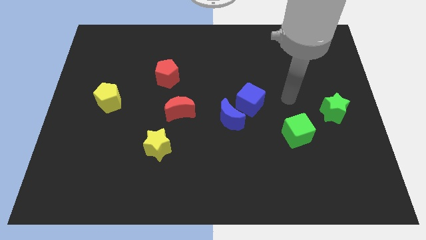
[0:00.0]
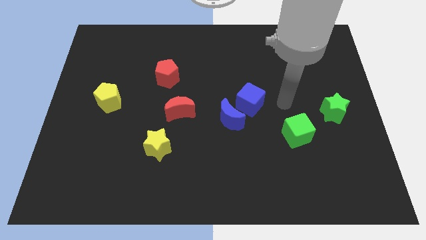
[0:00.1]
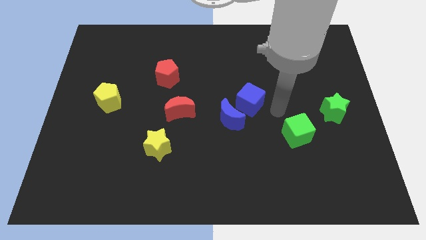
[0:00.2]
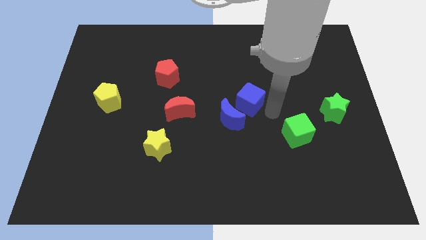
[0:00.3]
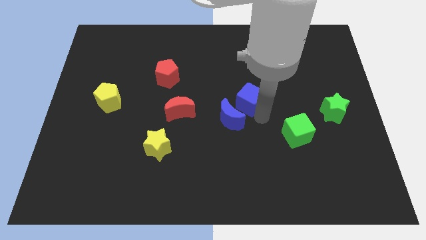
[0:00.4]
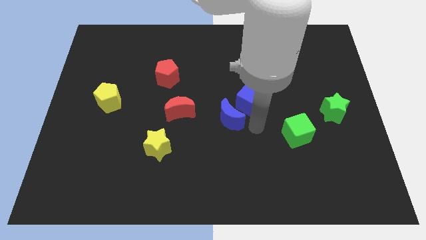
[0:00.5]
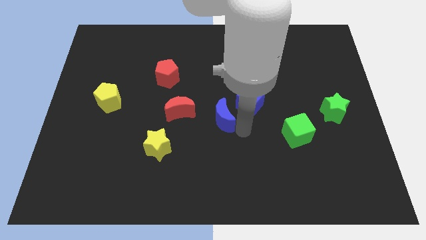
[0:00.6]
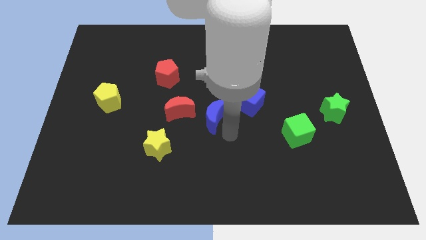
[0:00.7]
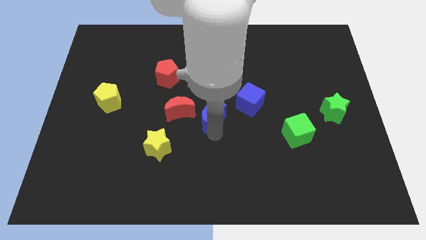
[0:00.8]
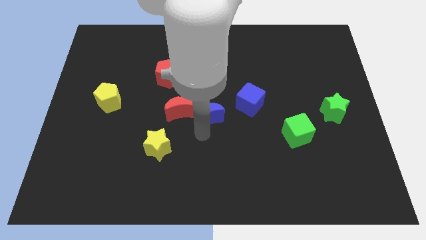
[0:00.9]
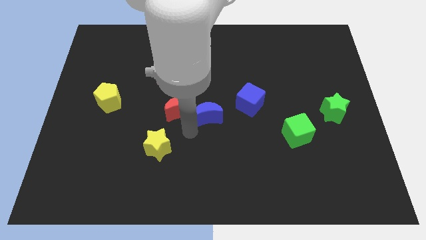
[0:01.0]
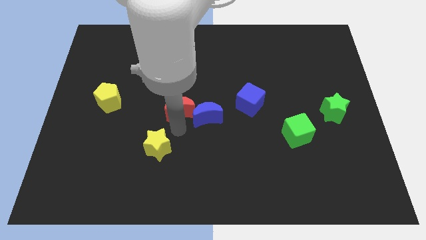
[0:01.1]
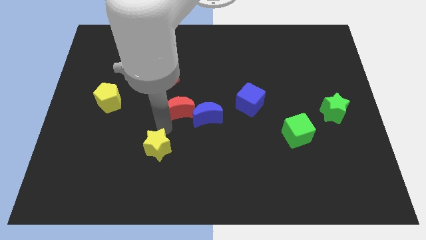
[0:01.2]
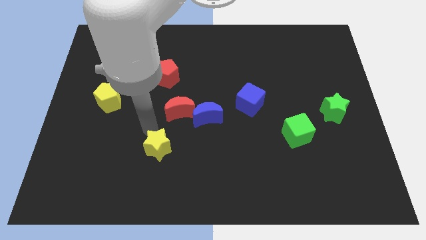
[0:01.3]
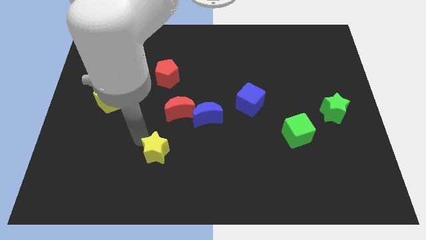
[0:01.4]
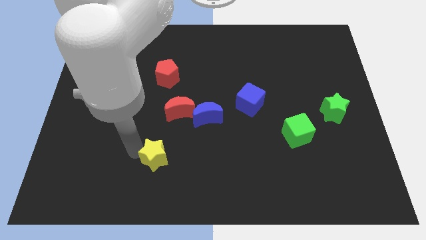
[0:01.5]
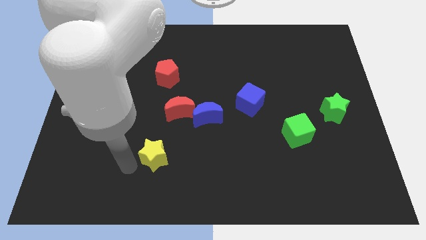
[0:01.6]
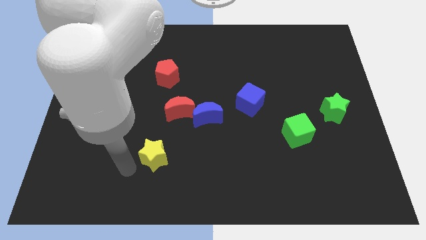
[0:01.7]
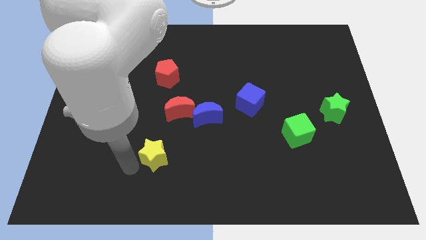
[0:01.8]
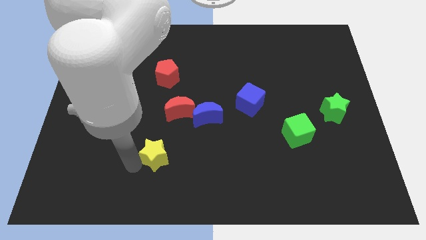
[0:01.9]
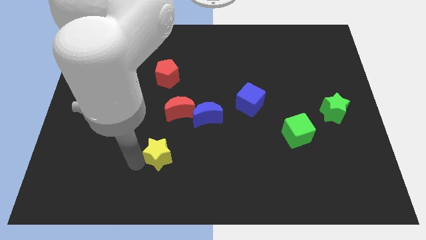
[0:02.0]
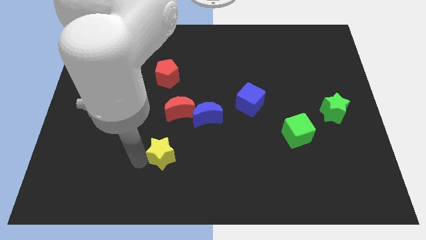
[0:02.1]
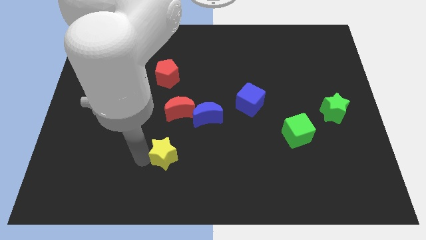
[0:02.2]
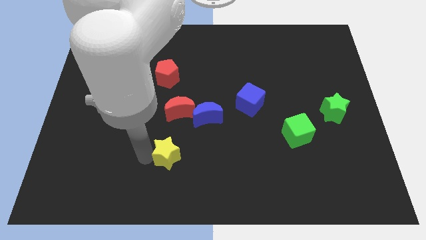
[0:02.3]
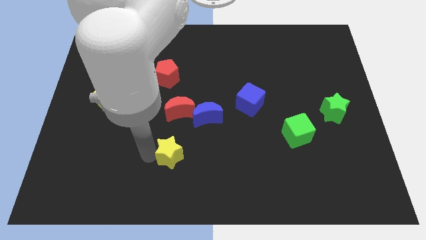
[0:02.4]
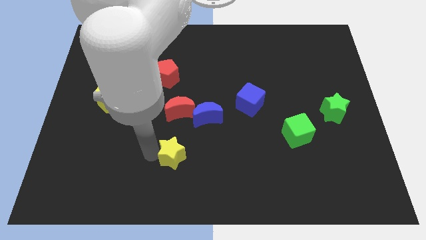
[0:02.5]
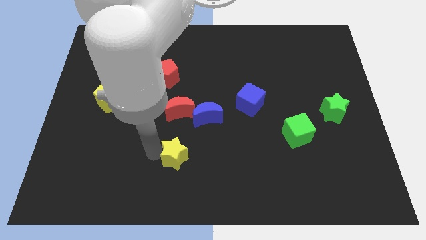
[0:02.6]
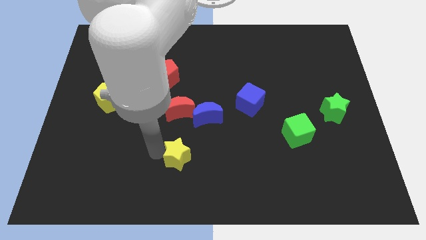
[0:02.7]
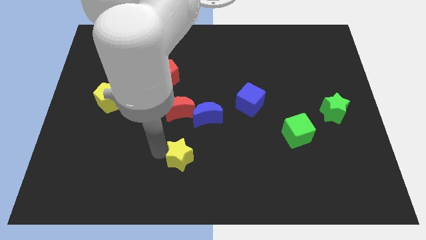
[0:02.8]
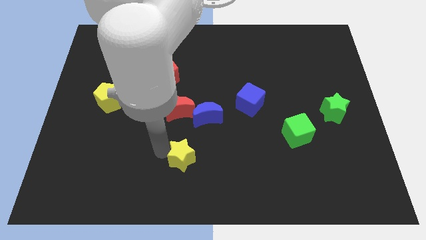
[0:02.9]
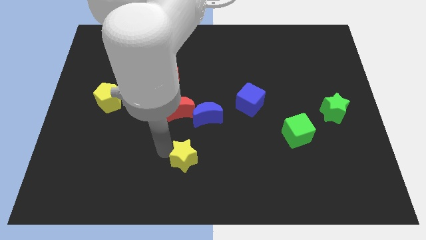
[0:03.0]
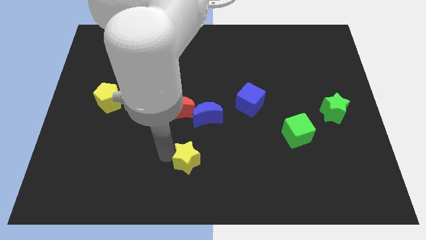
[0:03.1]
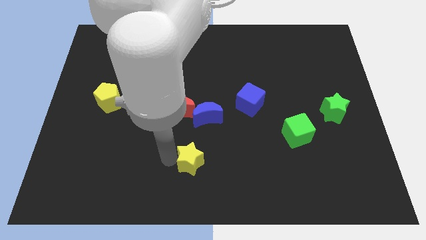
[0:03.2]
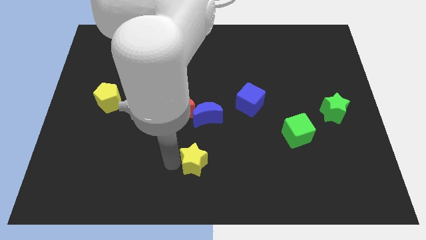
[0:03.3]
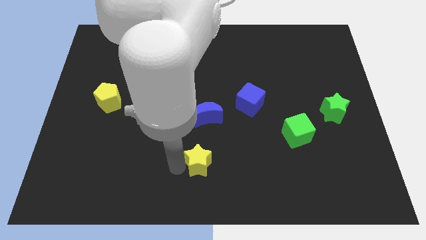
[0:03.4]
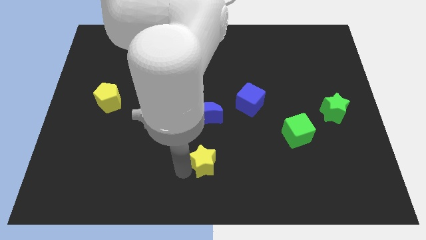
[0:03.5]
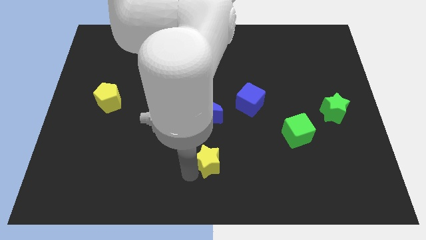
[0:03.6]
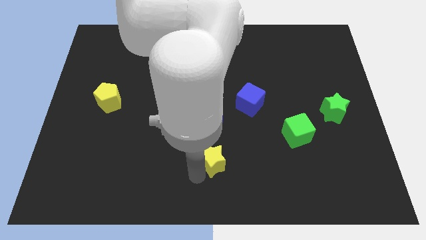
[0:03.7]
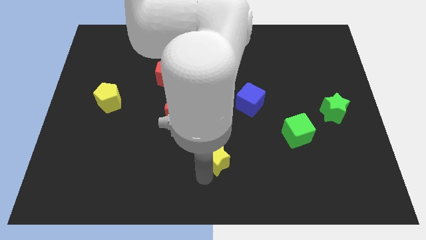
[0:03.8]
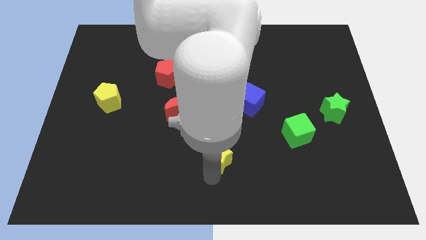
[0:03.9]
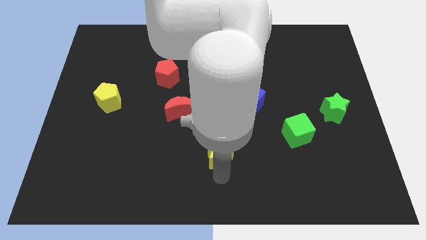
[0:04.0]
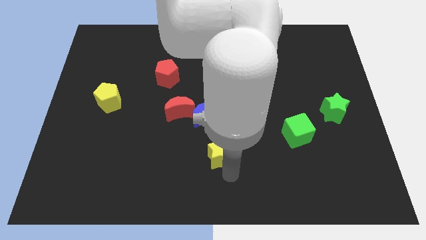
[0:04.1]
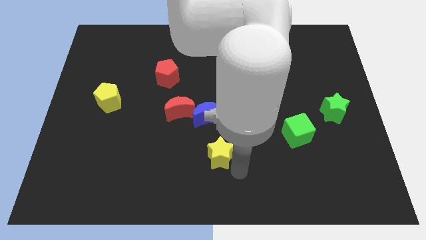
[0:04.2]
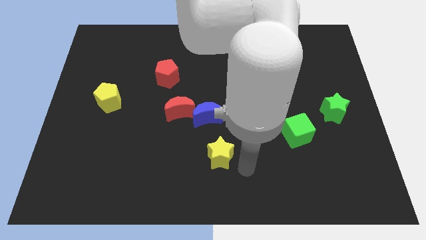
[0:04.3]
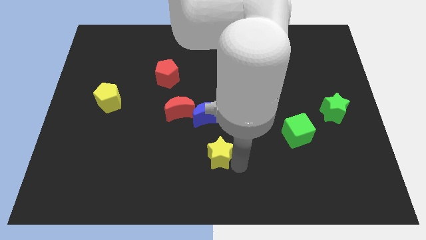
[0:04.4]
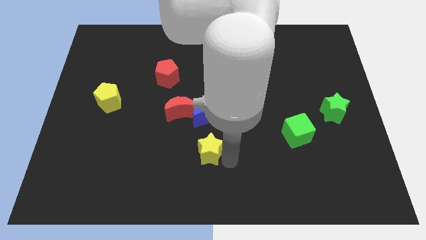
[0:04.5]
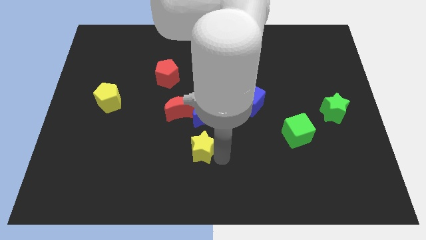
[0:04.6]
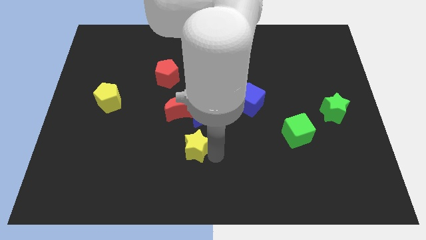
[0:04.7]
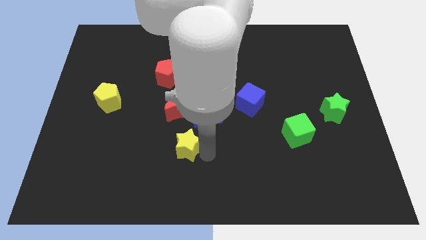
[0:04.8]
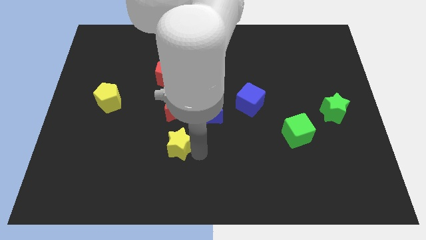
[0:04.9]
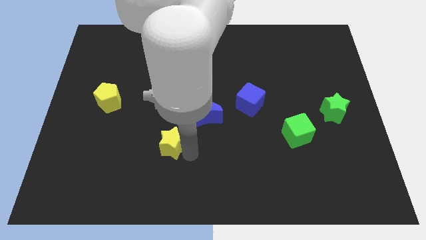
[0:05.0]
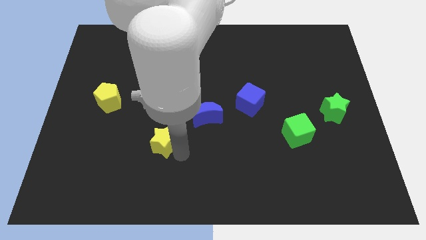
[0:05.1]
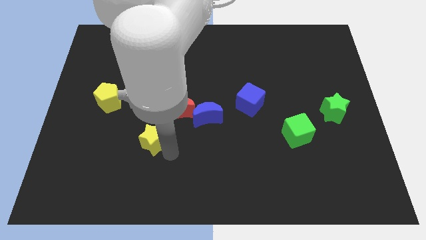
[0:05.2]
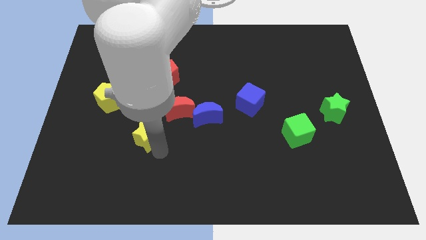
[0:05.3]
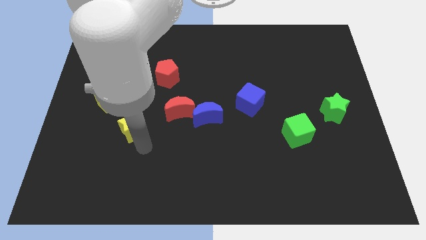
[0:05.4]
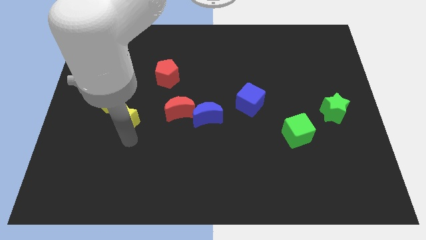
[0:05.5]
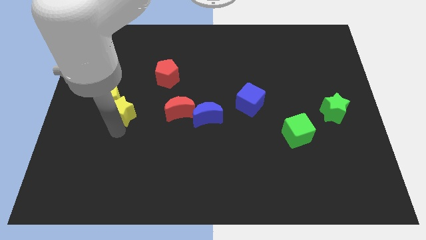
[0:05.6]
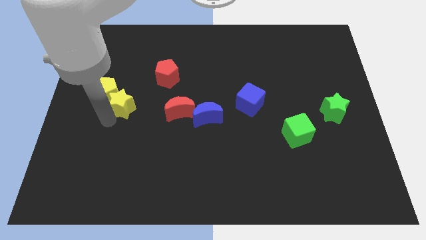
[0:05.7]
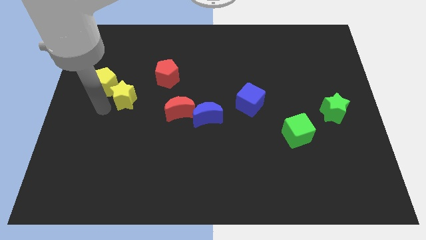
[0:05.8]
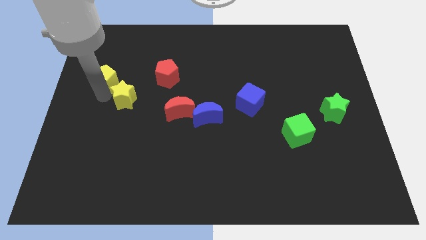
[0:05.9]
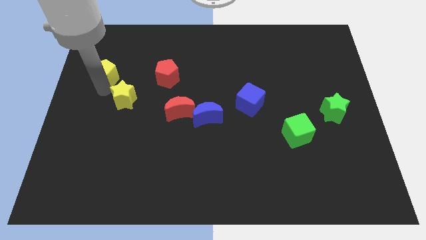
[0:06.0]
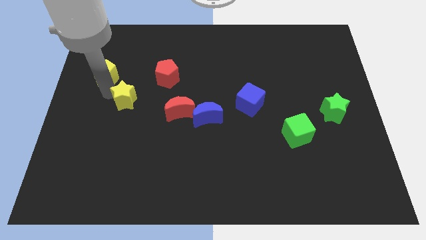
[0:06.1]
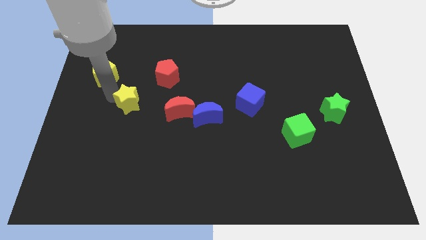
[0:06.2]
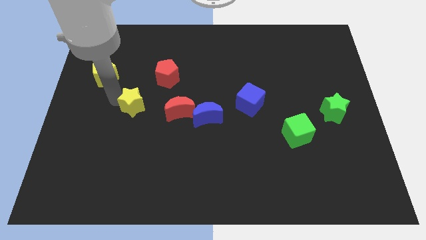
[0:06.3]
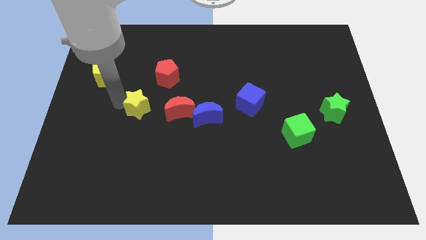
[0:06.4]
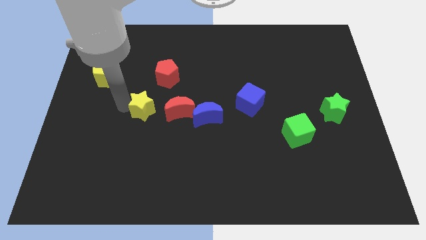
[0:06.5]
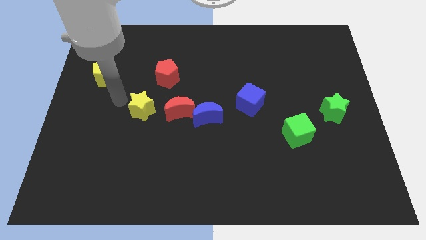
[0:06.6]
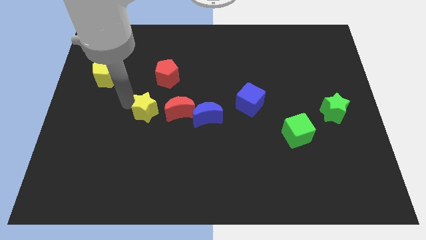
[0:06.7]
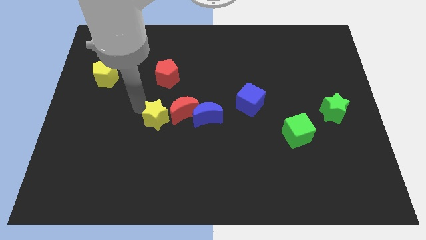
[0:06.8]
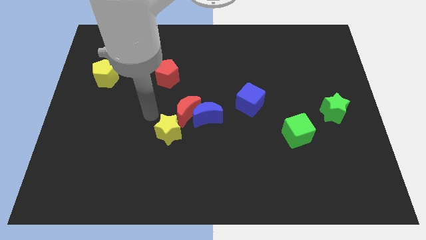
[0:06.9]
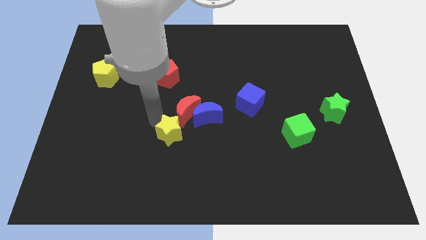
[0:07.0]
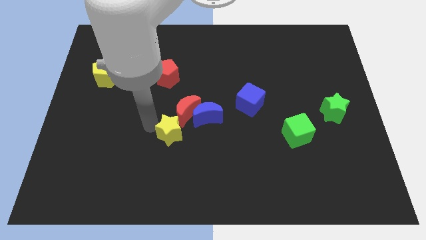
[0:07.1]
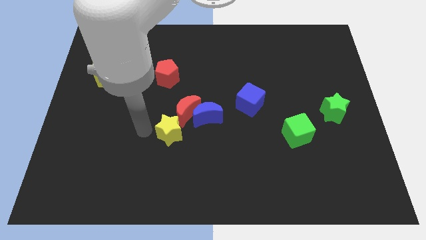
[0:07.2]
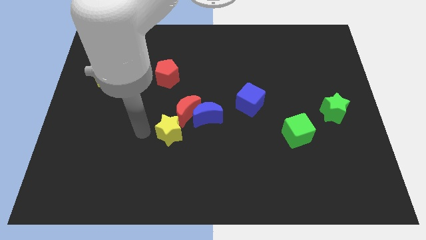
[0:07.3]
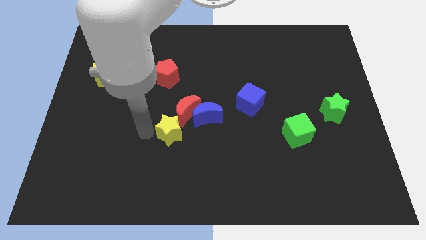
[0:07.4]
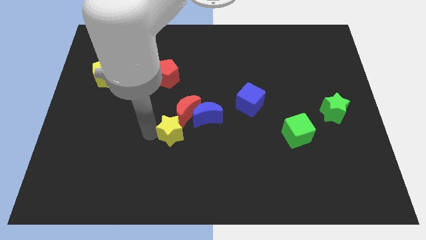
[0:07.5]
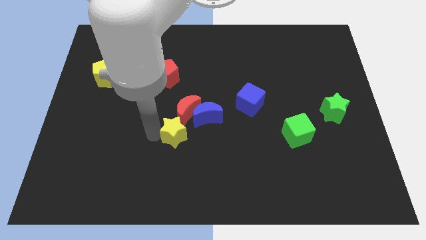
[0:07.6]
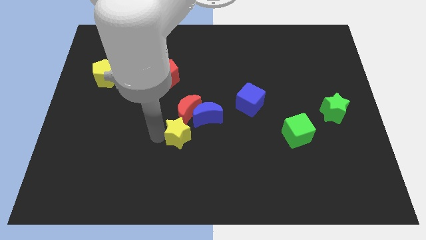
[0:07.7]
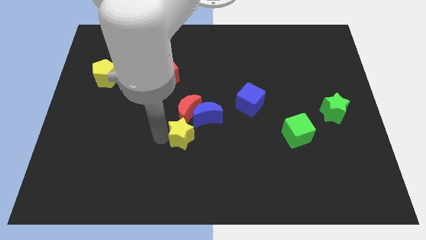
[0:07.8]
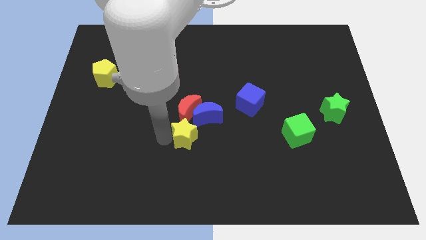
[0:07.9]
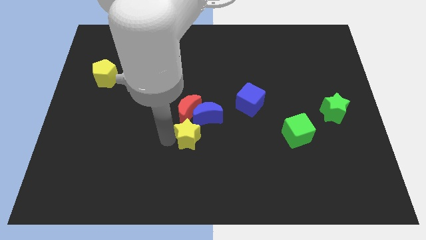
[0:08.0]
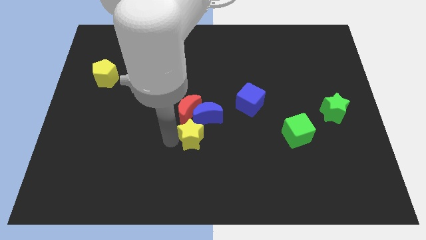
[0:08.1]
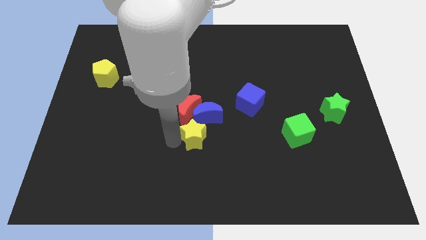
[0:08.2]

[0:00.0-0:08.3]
move the yellow star close to the blue moon
